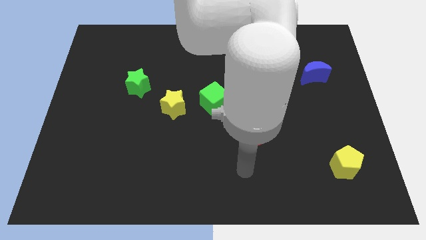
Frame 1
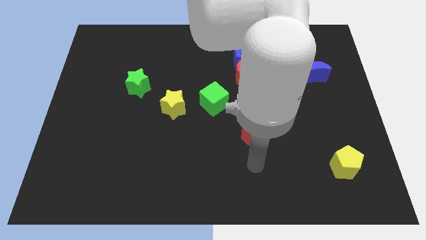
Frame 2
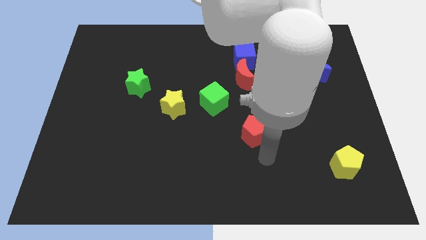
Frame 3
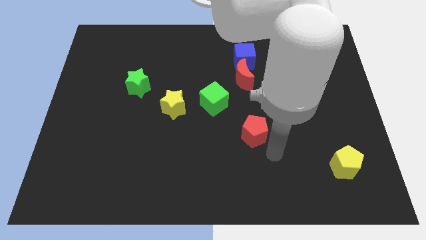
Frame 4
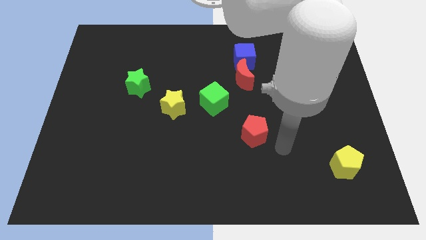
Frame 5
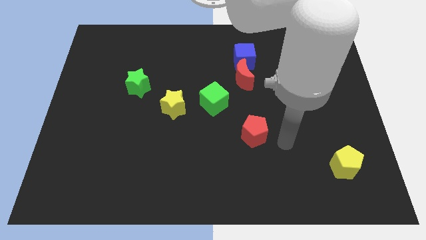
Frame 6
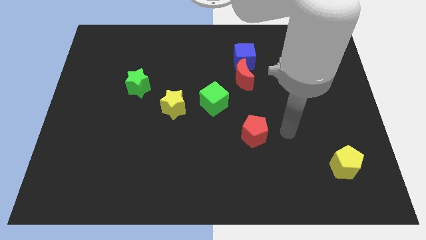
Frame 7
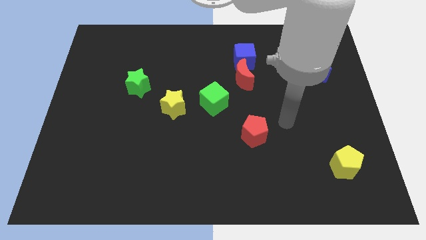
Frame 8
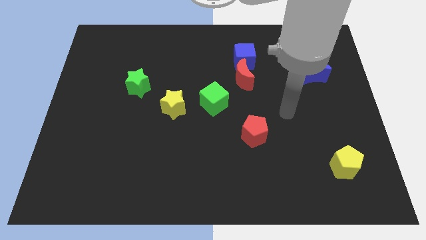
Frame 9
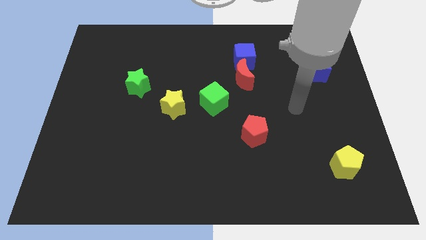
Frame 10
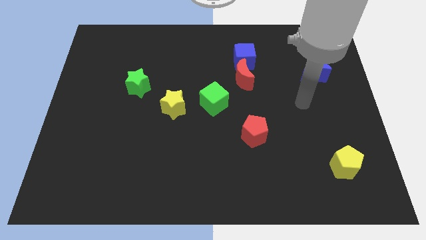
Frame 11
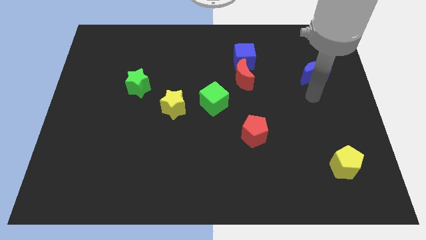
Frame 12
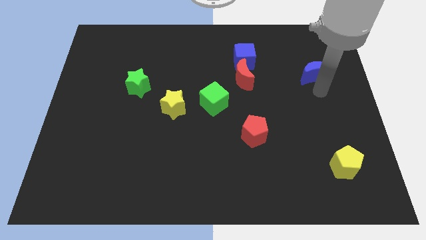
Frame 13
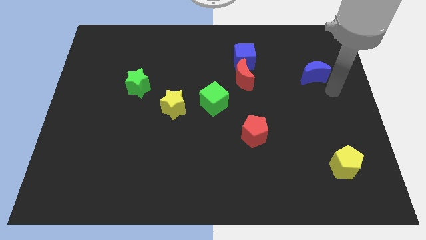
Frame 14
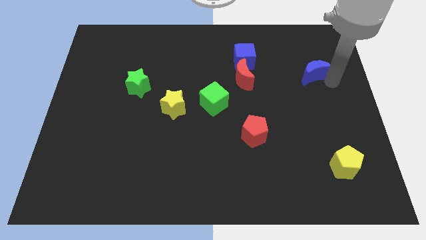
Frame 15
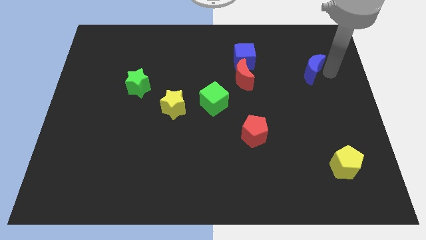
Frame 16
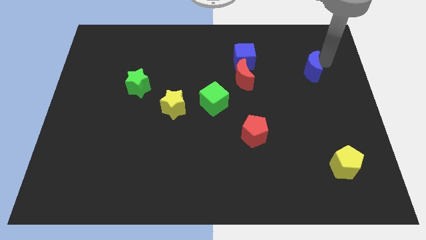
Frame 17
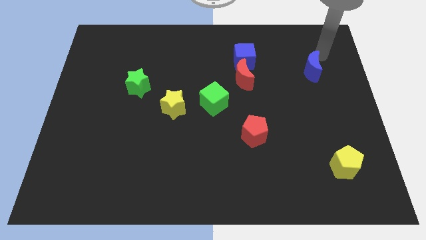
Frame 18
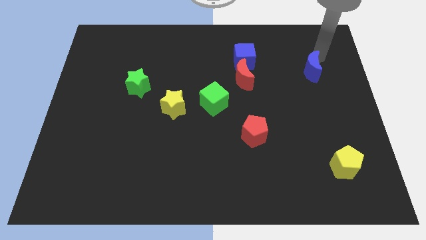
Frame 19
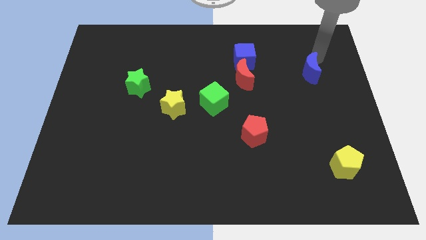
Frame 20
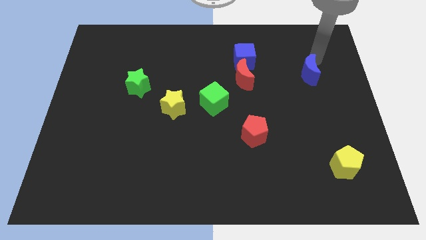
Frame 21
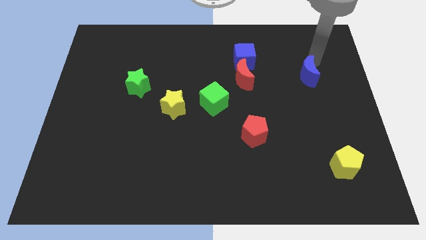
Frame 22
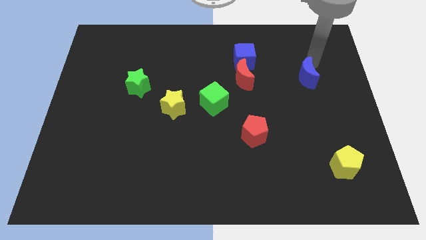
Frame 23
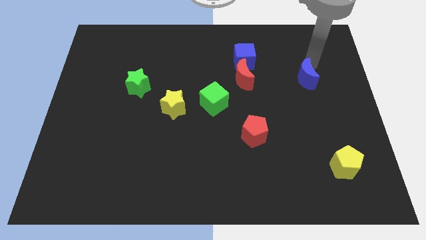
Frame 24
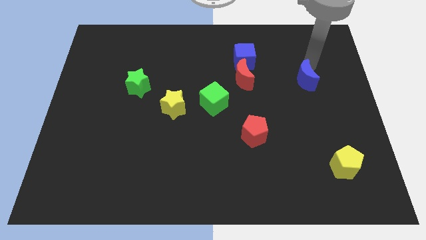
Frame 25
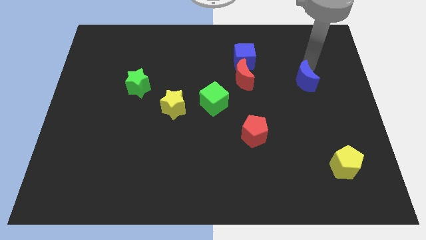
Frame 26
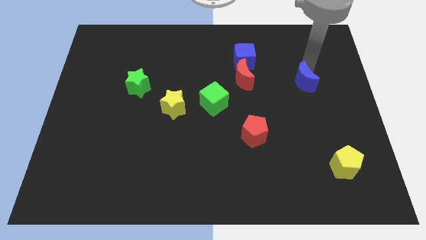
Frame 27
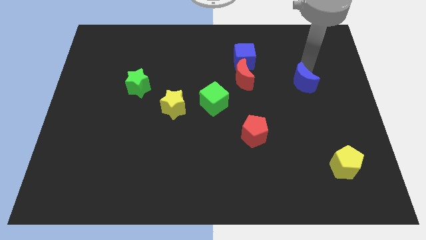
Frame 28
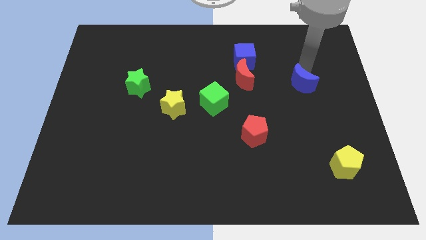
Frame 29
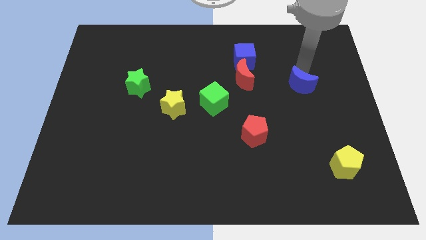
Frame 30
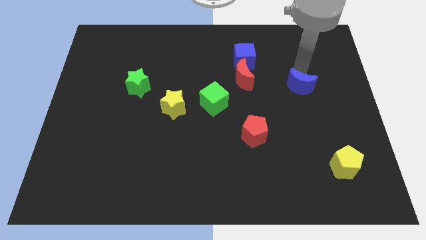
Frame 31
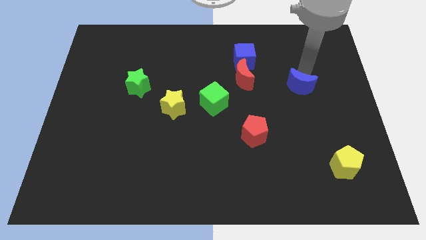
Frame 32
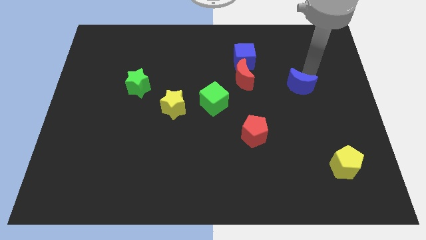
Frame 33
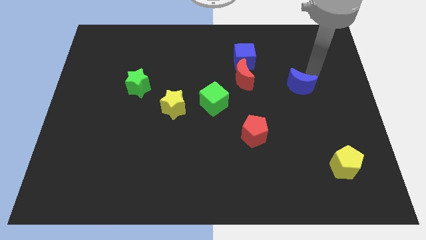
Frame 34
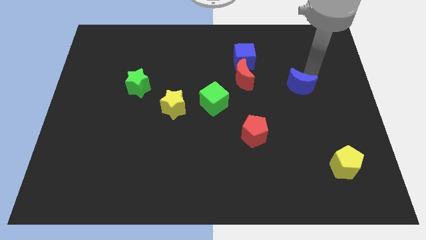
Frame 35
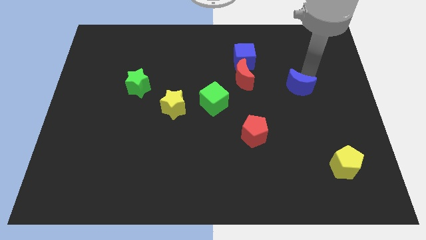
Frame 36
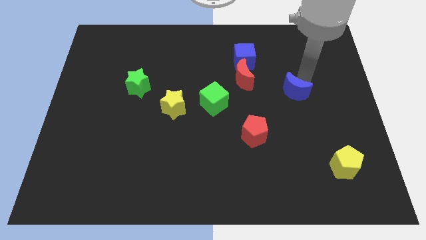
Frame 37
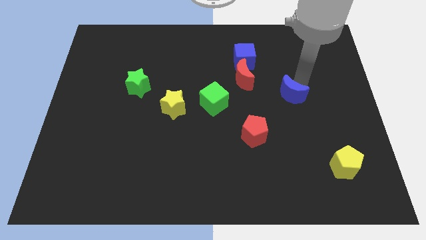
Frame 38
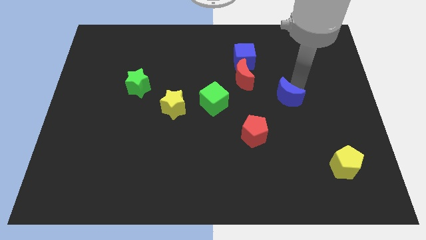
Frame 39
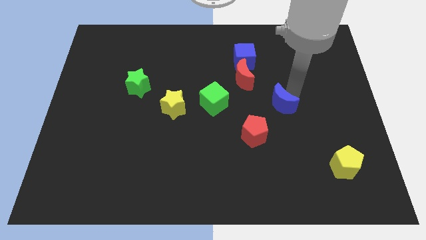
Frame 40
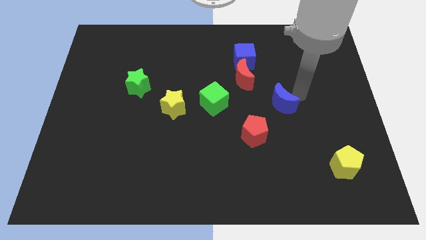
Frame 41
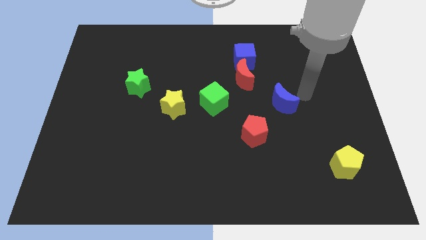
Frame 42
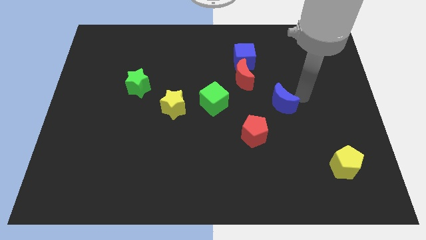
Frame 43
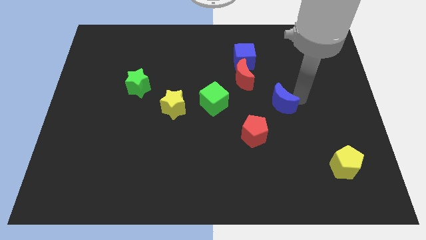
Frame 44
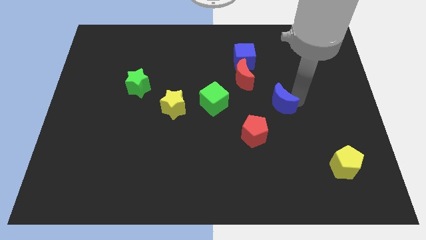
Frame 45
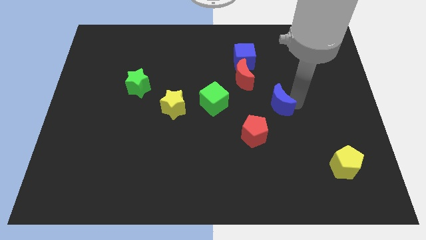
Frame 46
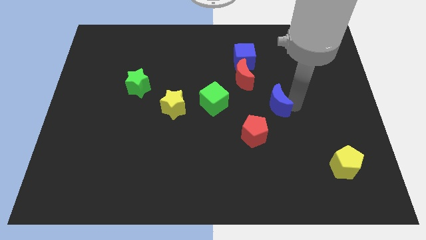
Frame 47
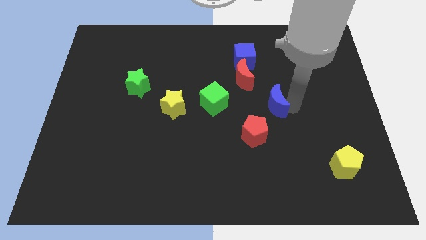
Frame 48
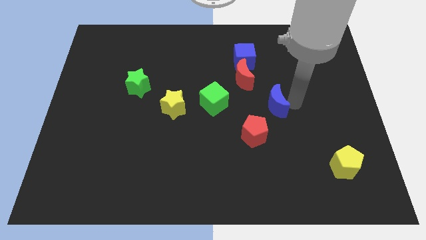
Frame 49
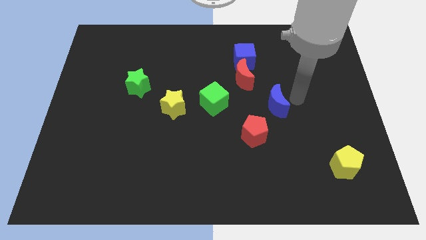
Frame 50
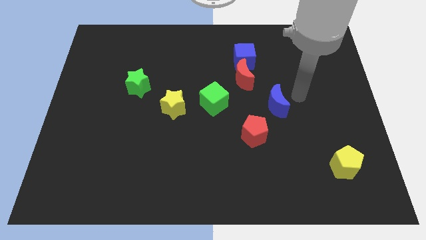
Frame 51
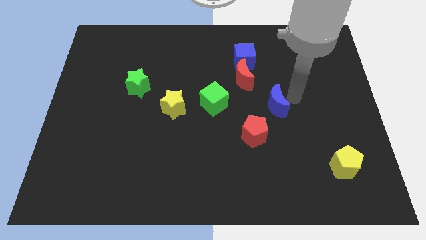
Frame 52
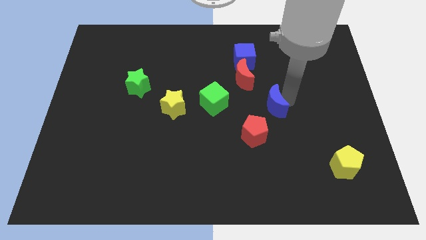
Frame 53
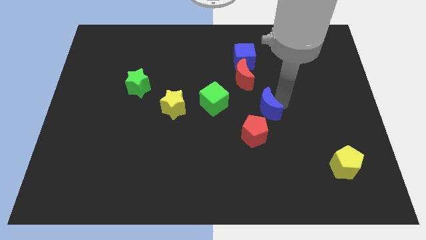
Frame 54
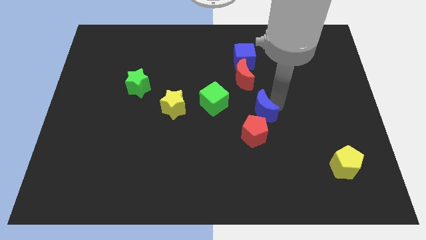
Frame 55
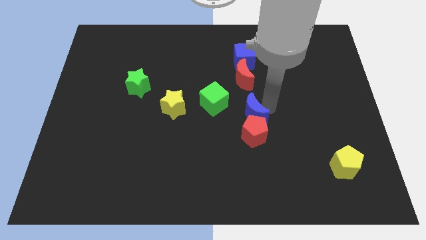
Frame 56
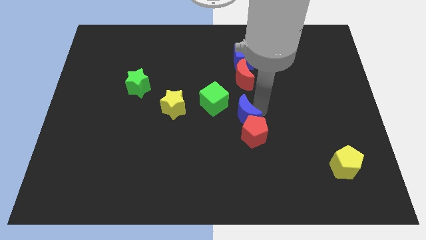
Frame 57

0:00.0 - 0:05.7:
slide the blue moon downwards and left diagonally

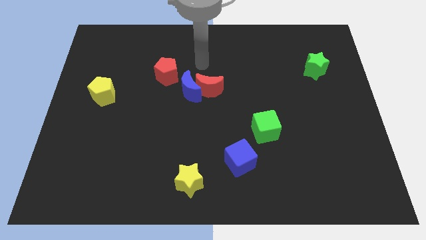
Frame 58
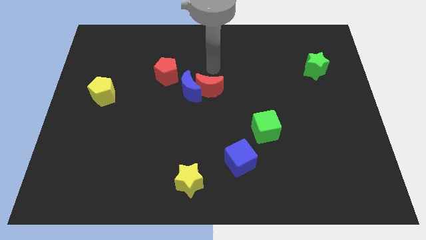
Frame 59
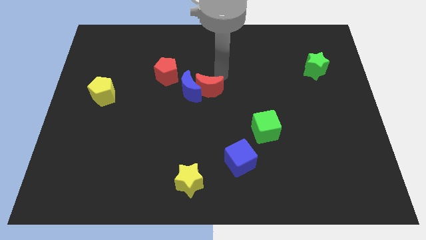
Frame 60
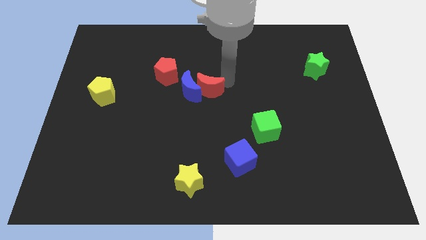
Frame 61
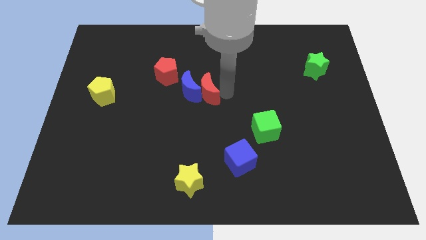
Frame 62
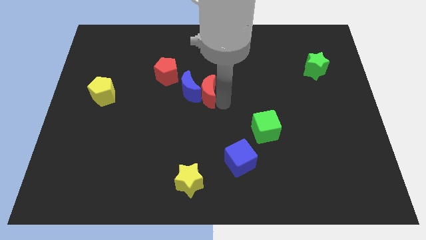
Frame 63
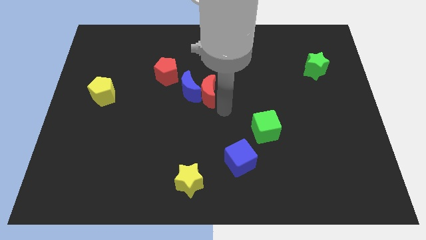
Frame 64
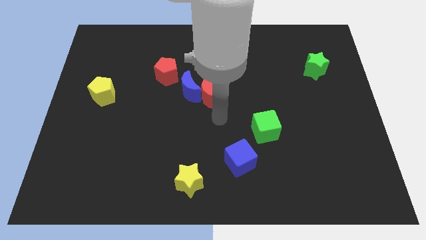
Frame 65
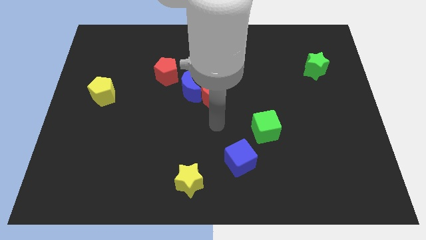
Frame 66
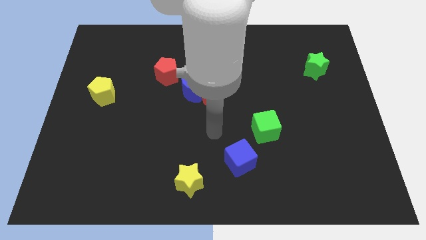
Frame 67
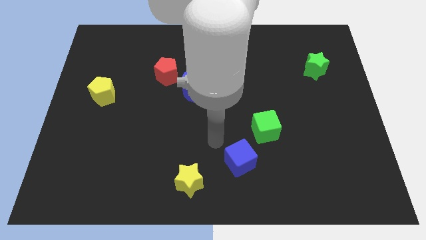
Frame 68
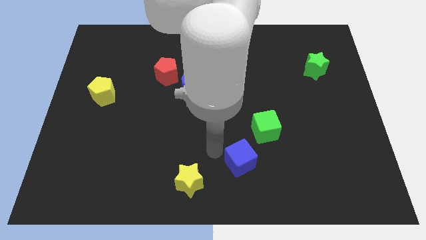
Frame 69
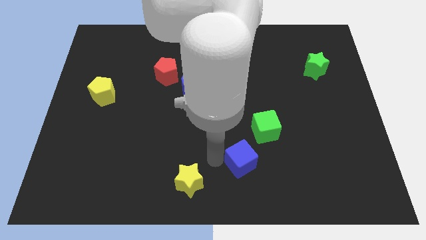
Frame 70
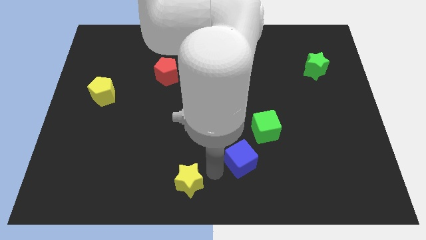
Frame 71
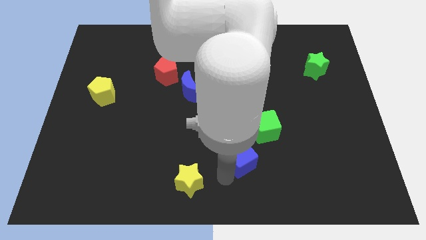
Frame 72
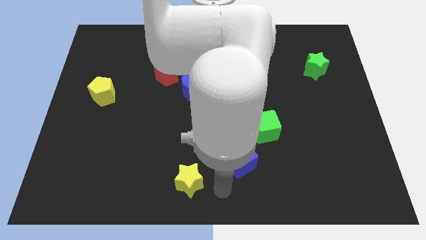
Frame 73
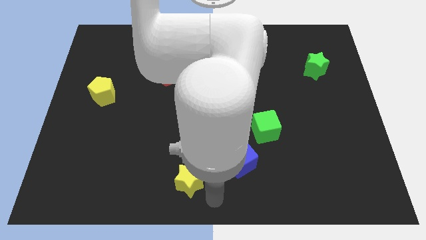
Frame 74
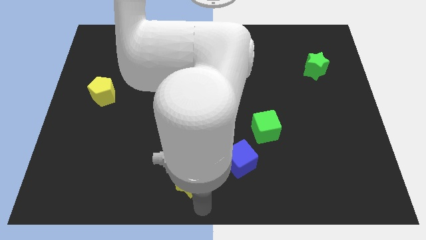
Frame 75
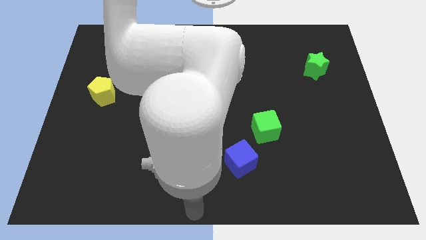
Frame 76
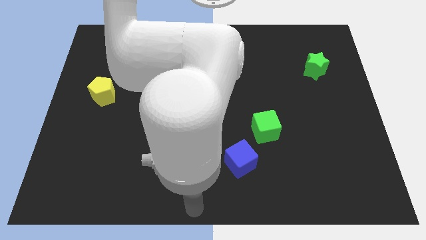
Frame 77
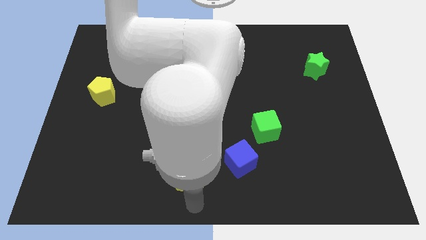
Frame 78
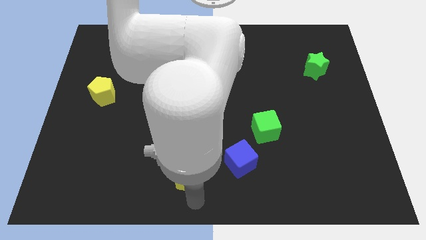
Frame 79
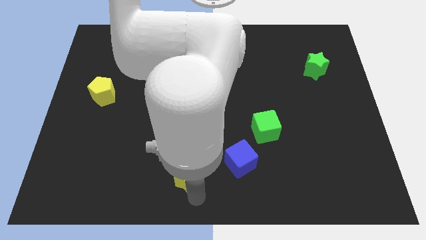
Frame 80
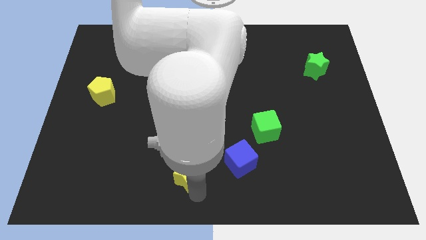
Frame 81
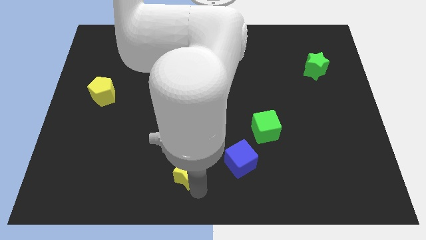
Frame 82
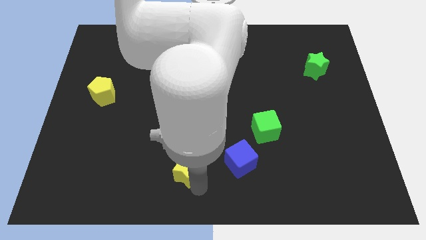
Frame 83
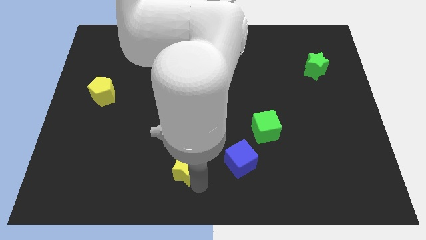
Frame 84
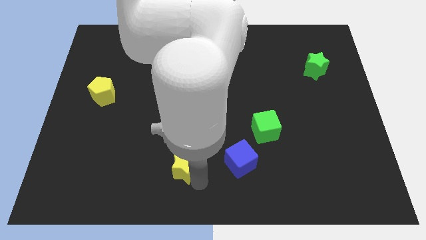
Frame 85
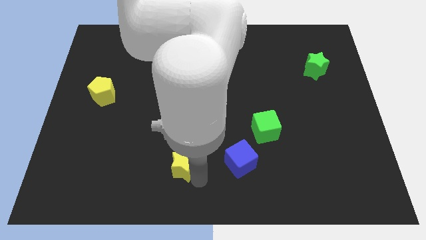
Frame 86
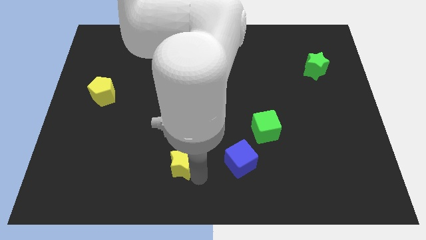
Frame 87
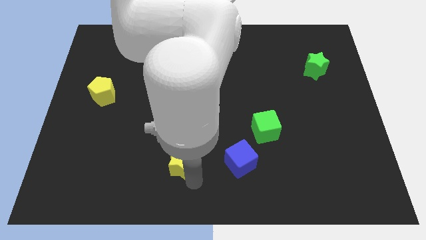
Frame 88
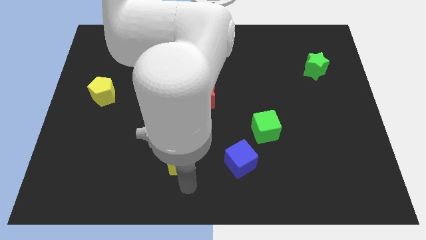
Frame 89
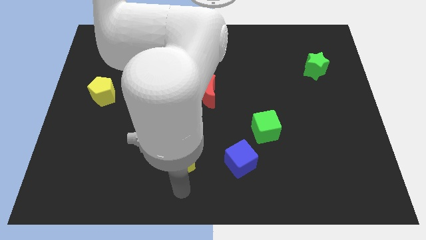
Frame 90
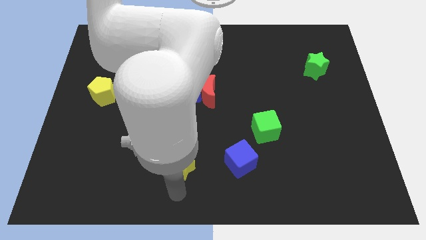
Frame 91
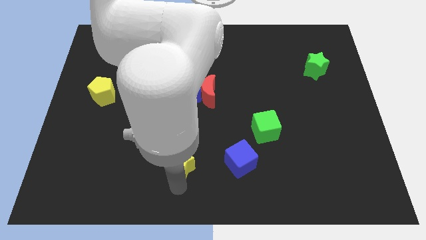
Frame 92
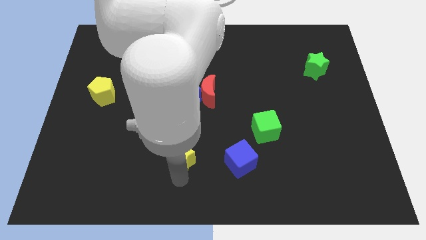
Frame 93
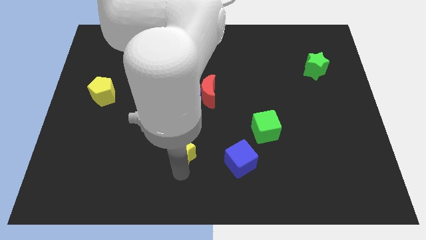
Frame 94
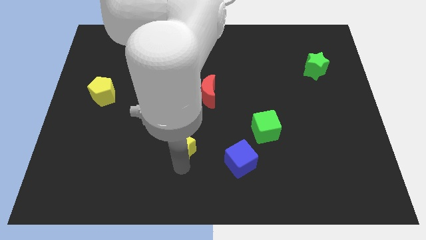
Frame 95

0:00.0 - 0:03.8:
push the yellow star a little bit upwards
